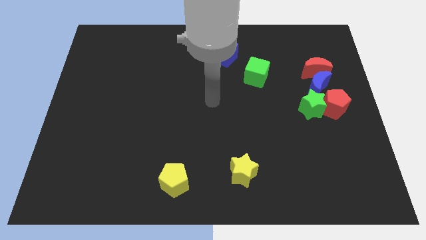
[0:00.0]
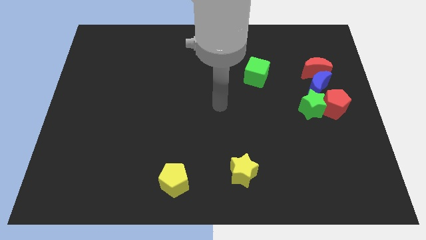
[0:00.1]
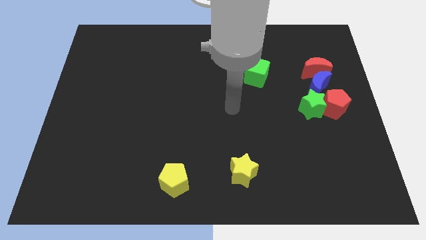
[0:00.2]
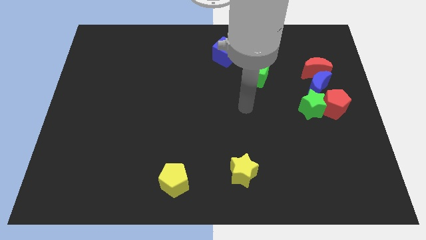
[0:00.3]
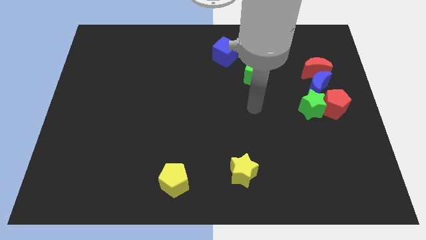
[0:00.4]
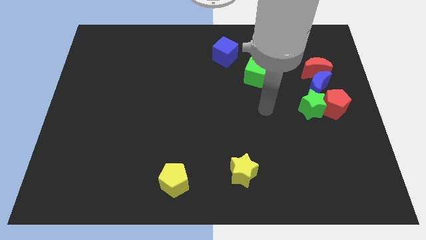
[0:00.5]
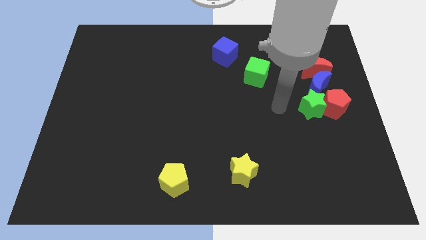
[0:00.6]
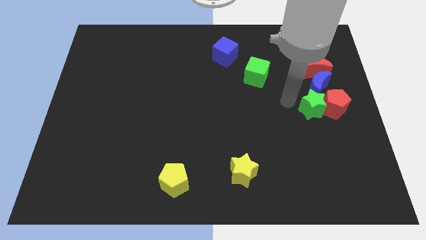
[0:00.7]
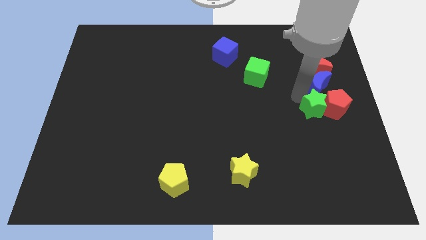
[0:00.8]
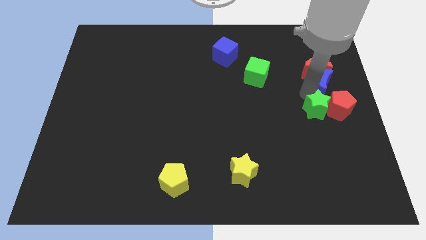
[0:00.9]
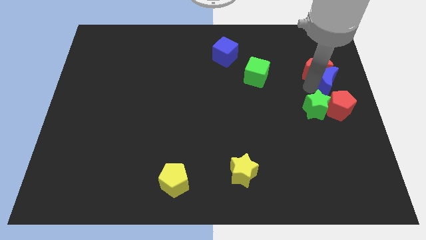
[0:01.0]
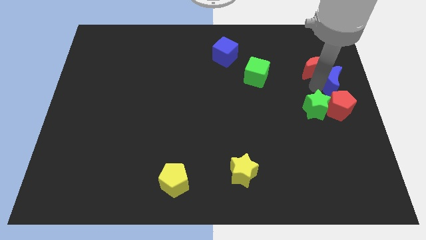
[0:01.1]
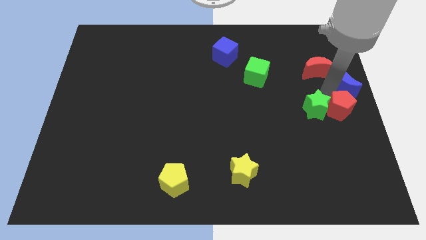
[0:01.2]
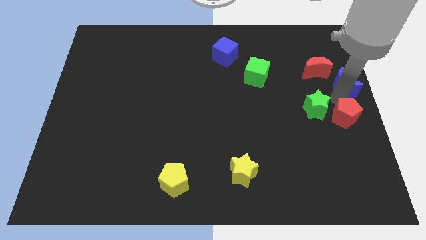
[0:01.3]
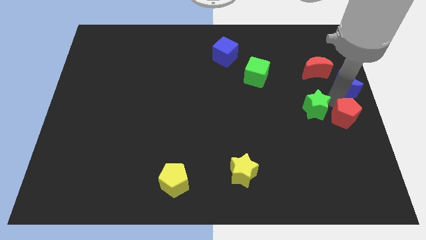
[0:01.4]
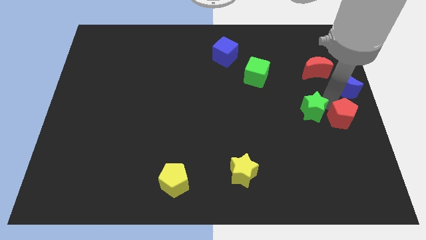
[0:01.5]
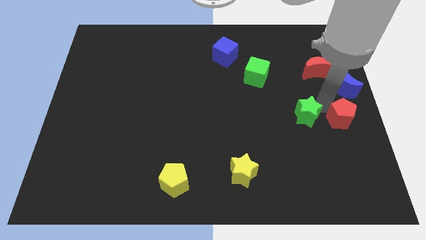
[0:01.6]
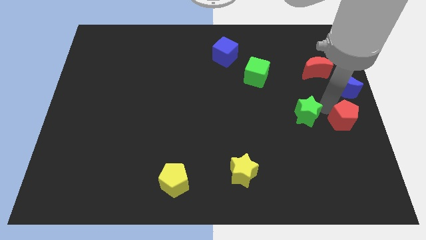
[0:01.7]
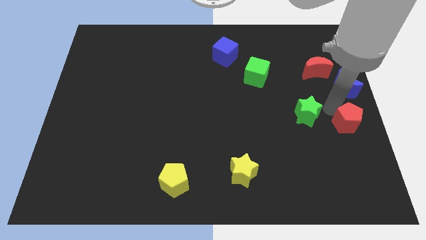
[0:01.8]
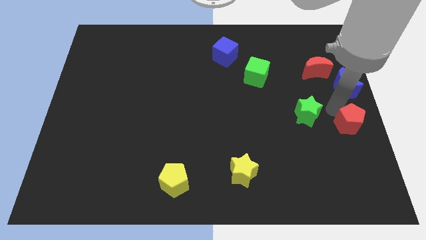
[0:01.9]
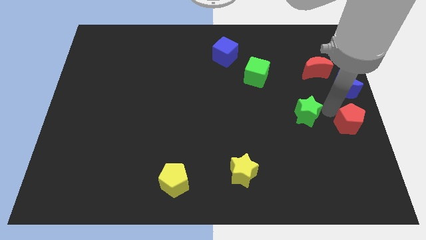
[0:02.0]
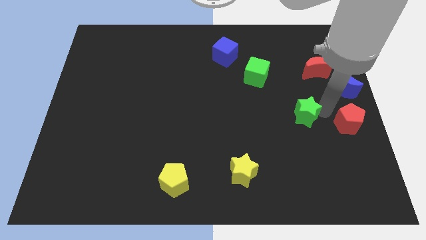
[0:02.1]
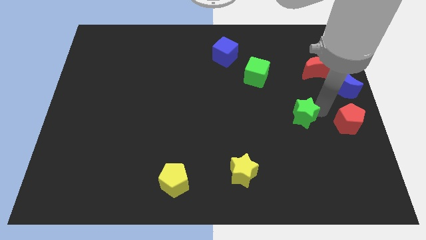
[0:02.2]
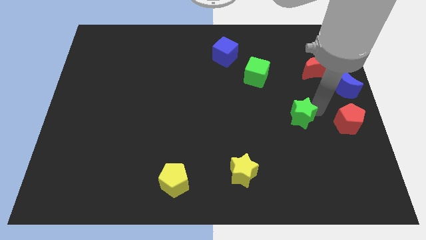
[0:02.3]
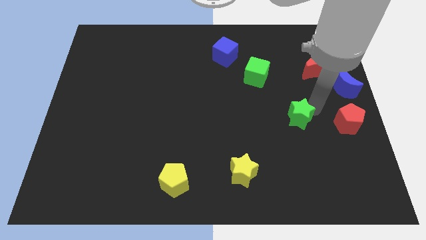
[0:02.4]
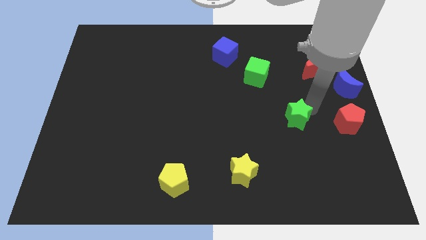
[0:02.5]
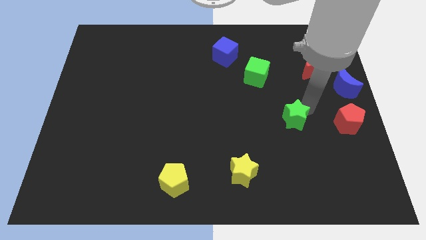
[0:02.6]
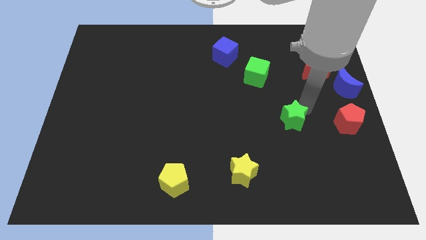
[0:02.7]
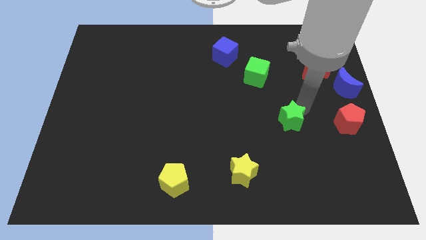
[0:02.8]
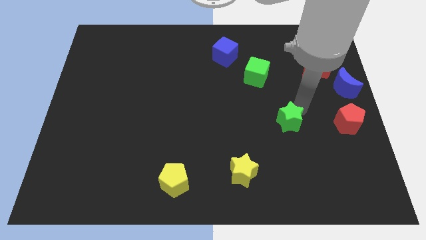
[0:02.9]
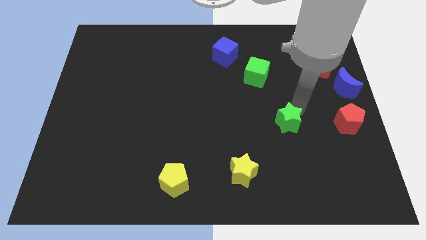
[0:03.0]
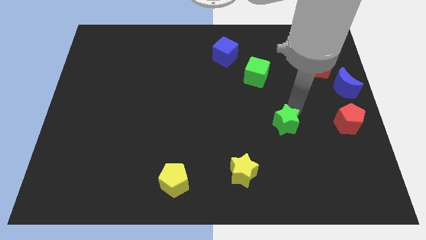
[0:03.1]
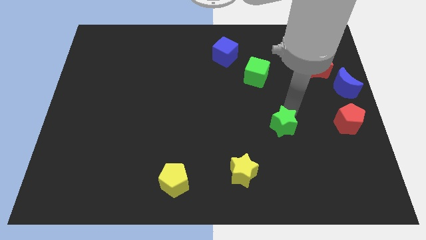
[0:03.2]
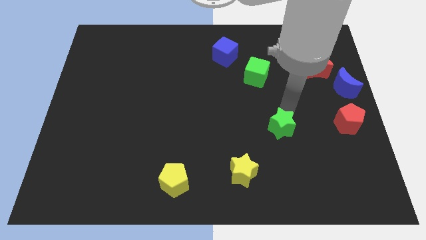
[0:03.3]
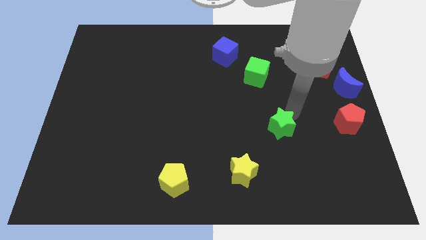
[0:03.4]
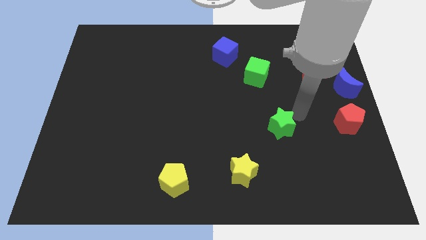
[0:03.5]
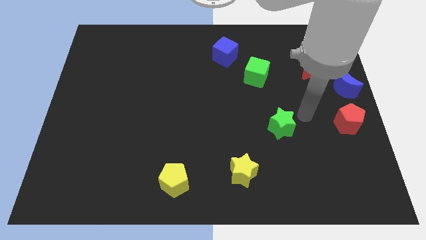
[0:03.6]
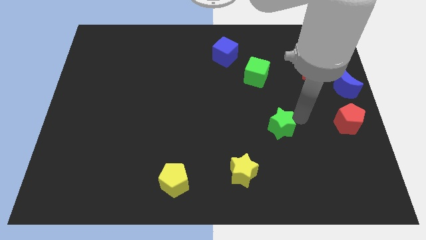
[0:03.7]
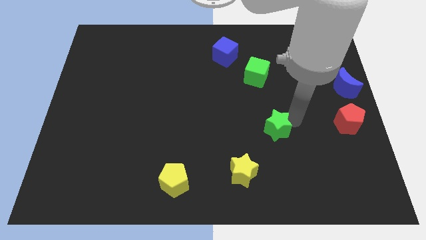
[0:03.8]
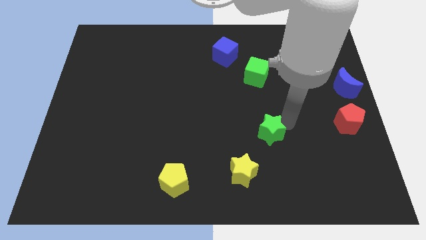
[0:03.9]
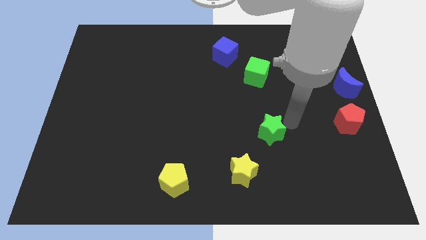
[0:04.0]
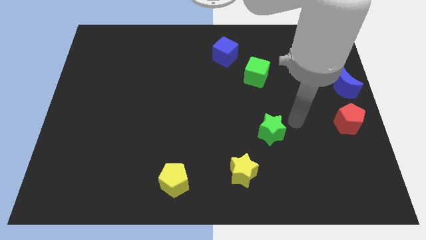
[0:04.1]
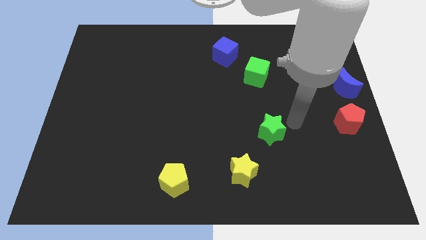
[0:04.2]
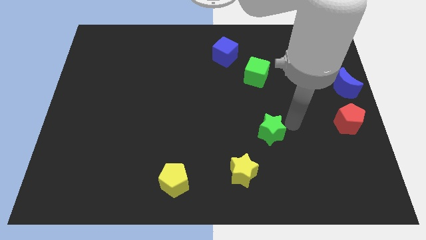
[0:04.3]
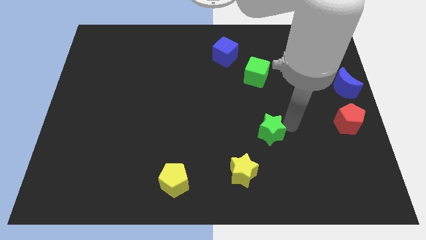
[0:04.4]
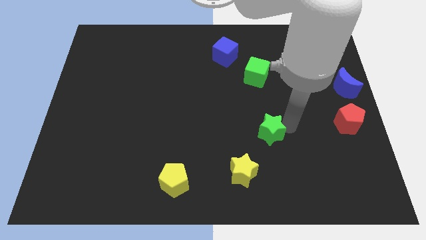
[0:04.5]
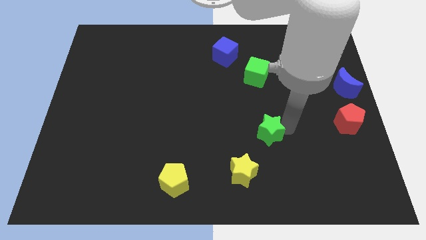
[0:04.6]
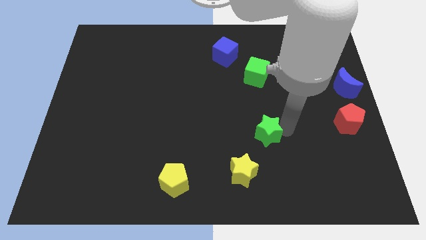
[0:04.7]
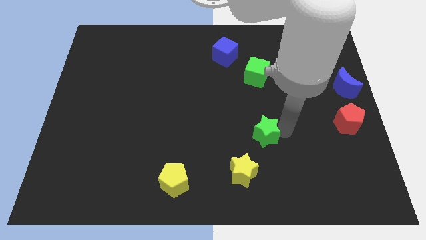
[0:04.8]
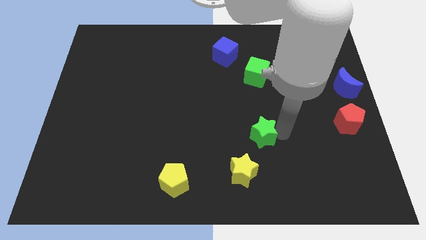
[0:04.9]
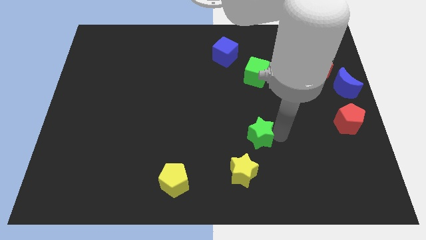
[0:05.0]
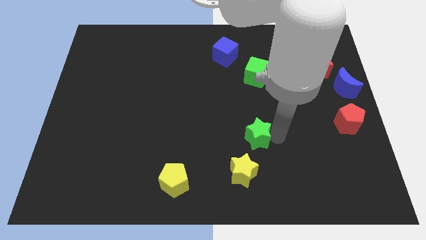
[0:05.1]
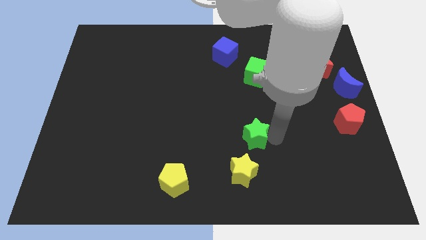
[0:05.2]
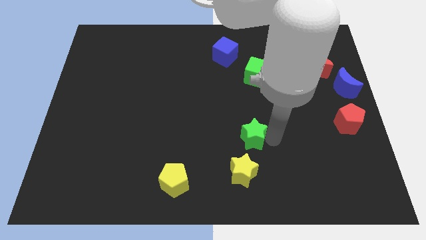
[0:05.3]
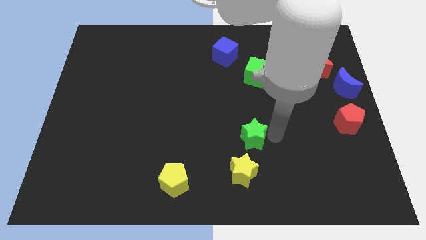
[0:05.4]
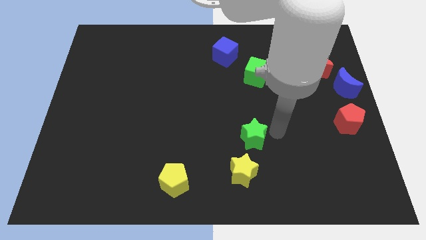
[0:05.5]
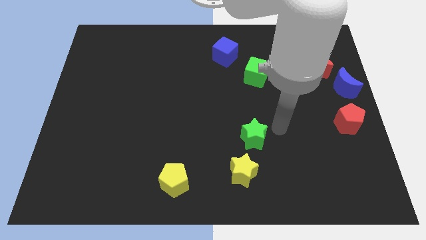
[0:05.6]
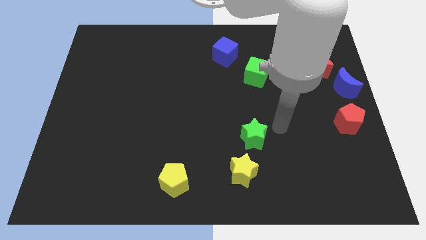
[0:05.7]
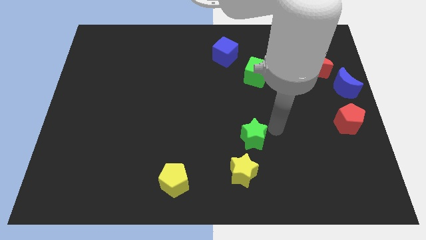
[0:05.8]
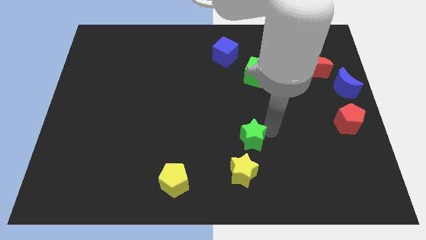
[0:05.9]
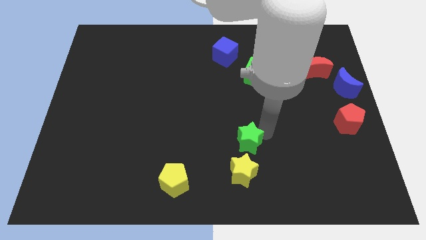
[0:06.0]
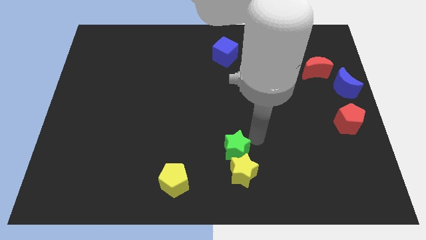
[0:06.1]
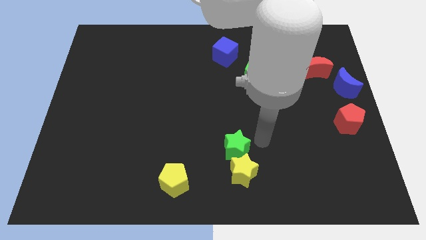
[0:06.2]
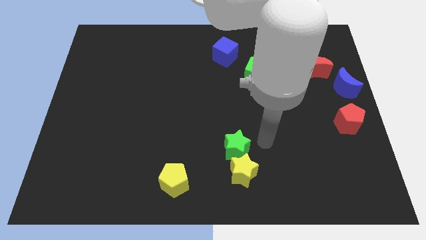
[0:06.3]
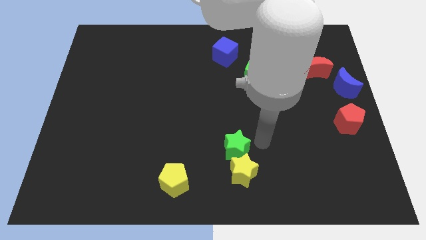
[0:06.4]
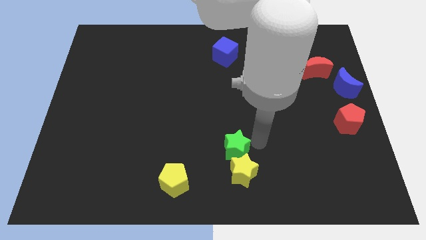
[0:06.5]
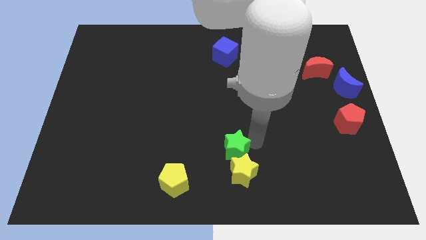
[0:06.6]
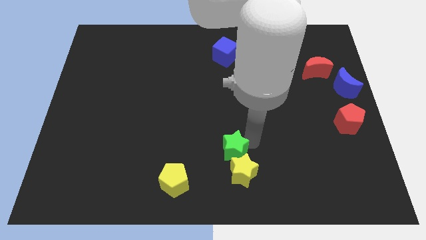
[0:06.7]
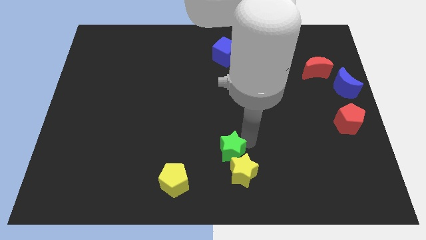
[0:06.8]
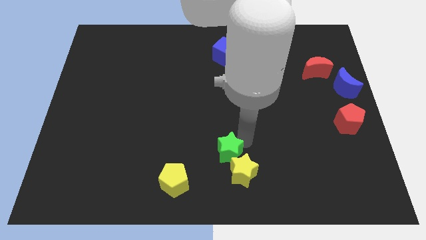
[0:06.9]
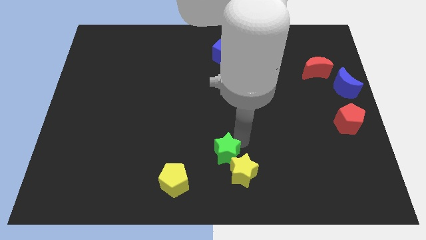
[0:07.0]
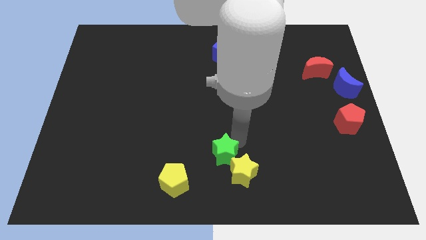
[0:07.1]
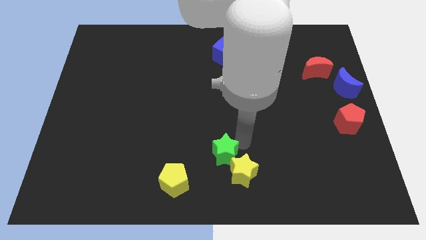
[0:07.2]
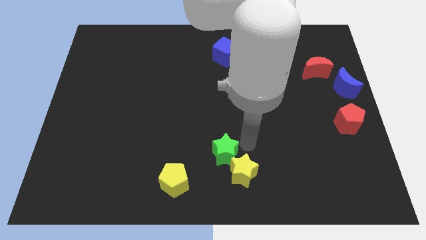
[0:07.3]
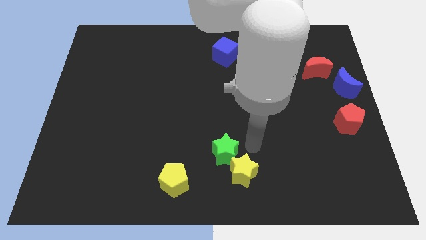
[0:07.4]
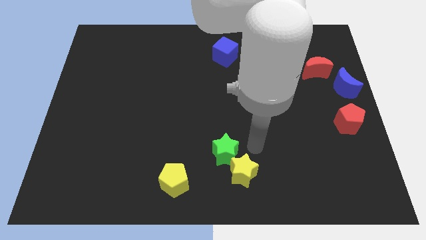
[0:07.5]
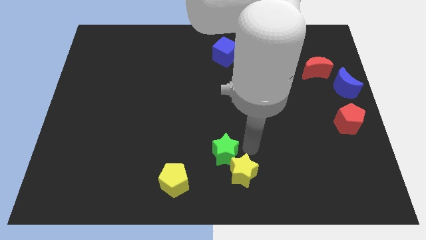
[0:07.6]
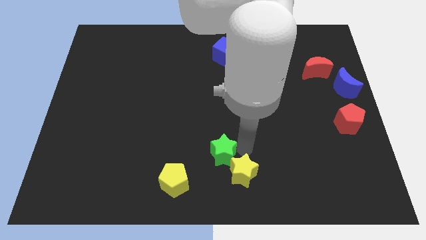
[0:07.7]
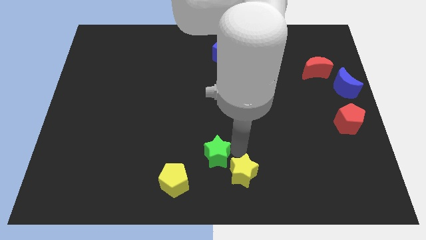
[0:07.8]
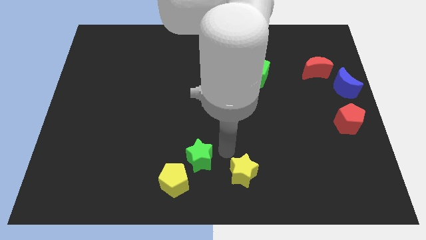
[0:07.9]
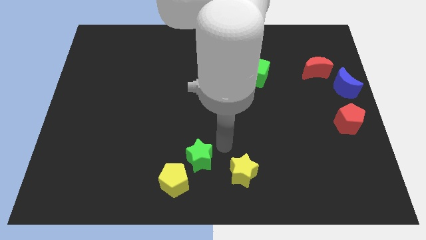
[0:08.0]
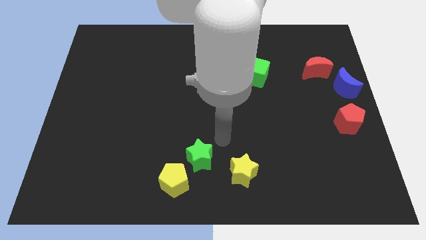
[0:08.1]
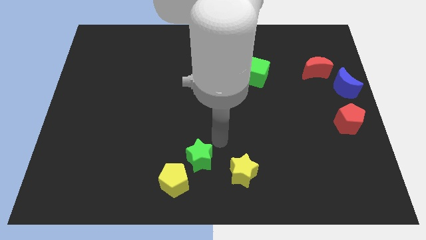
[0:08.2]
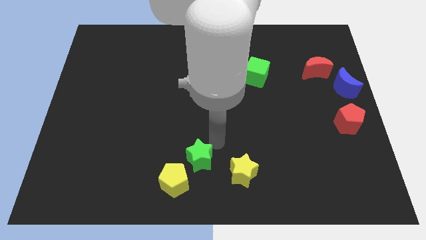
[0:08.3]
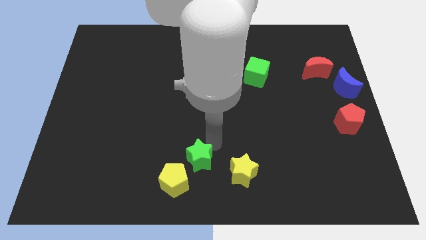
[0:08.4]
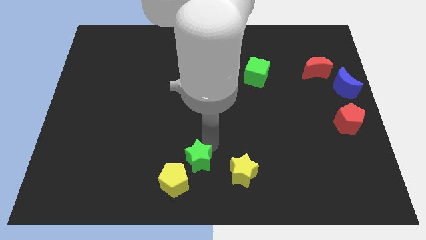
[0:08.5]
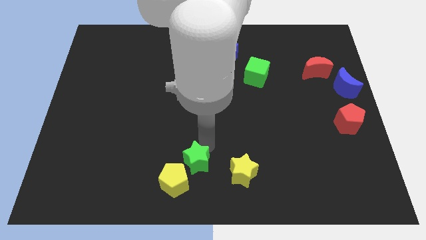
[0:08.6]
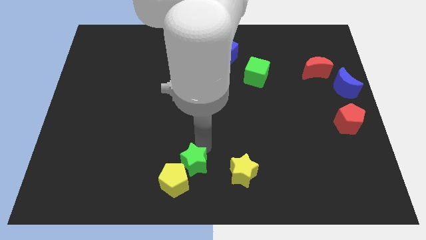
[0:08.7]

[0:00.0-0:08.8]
slide the green star towards the yellow pentagon
